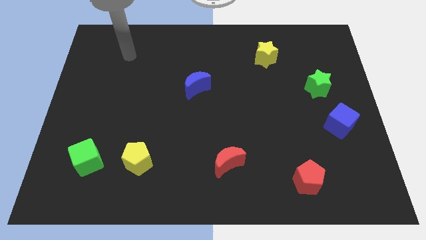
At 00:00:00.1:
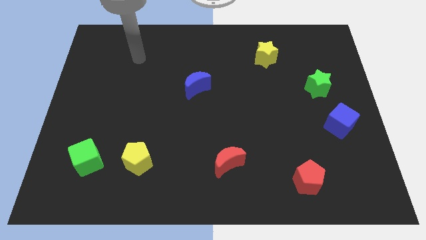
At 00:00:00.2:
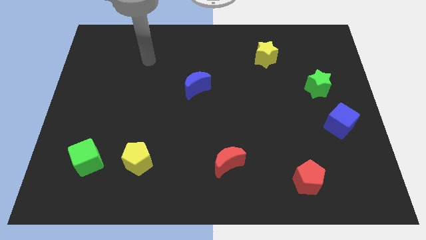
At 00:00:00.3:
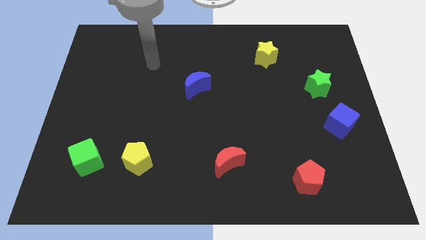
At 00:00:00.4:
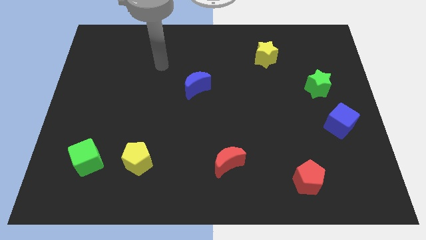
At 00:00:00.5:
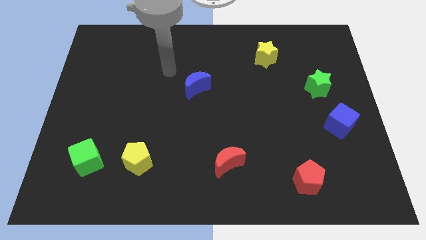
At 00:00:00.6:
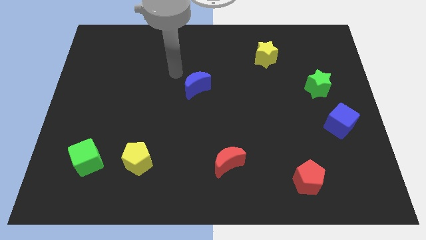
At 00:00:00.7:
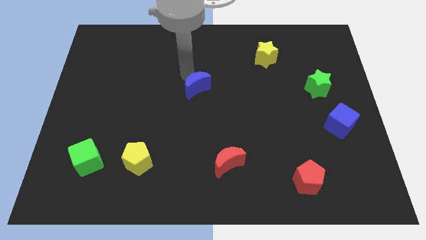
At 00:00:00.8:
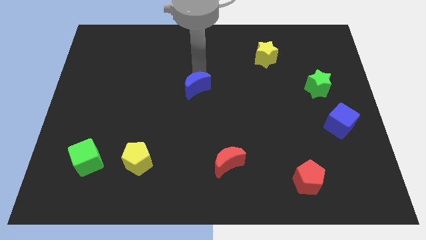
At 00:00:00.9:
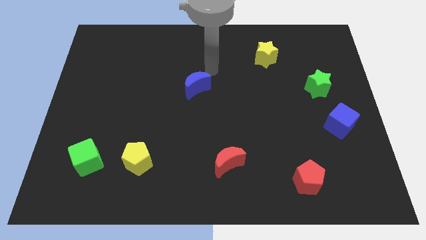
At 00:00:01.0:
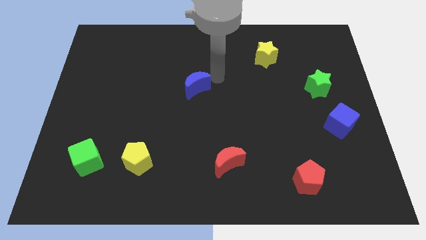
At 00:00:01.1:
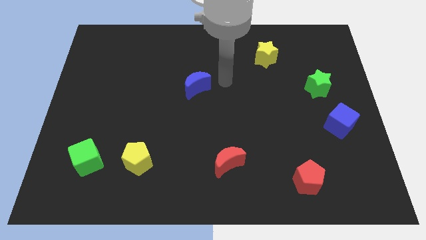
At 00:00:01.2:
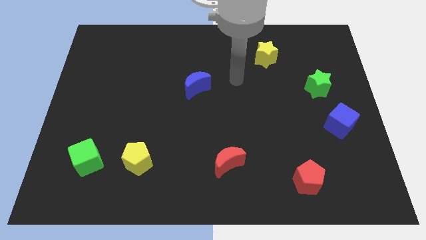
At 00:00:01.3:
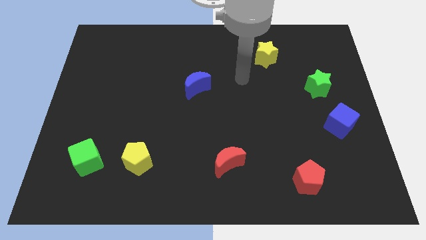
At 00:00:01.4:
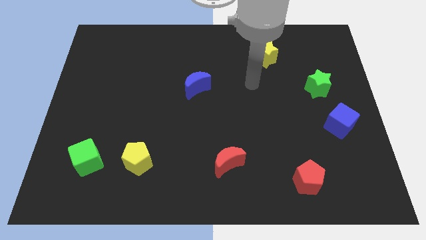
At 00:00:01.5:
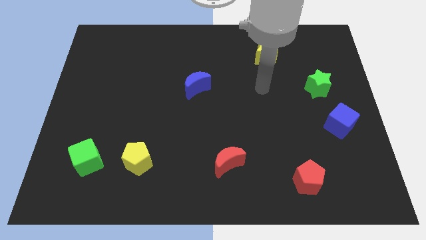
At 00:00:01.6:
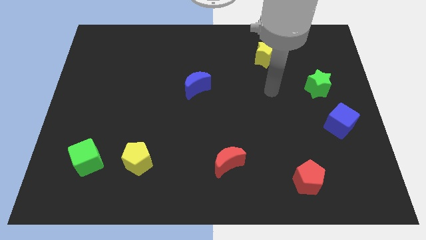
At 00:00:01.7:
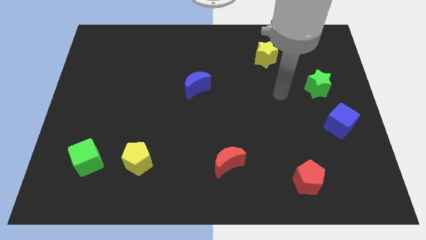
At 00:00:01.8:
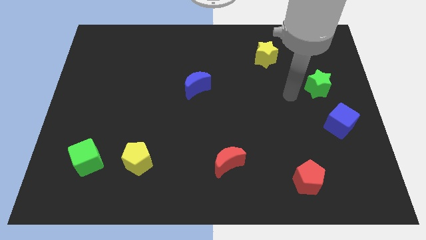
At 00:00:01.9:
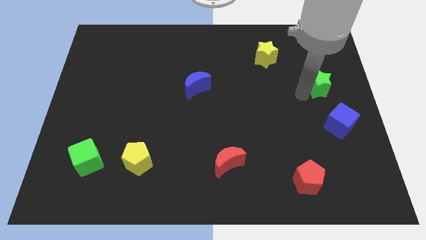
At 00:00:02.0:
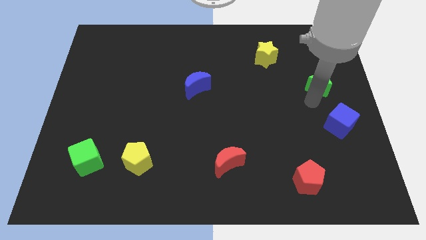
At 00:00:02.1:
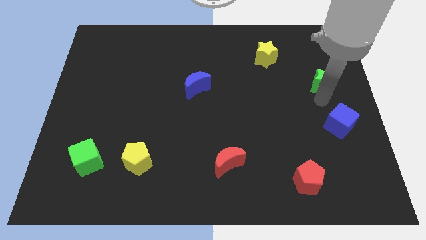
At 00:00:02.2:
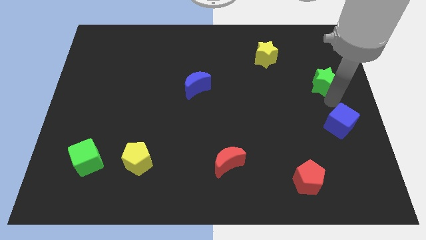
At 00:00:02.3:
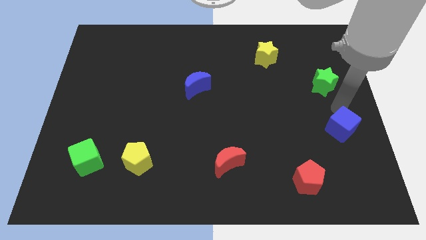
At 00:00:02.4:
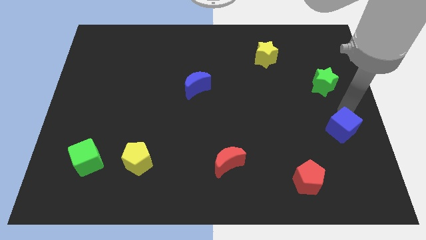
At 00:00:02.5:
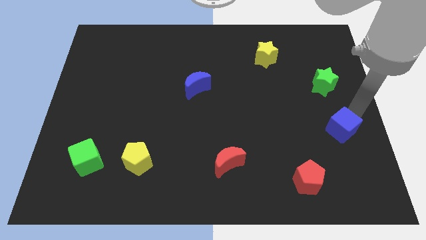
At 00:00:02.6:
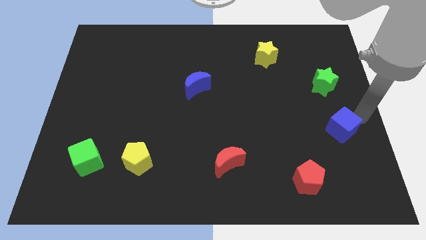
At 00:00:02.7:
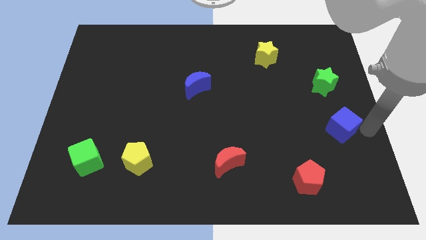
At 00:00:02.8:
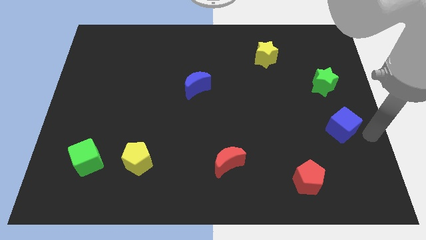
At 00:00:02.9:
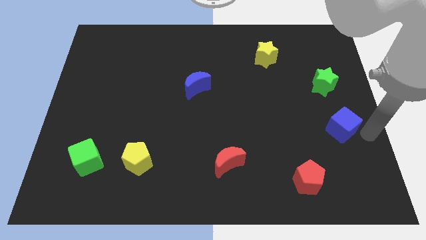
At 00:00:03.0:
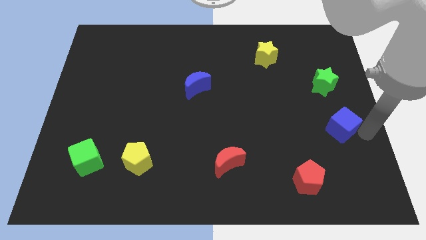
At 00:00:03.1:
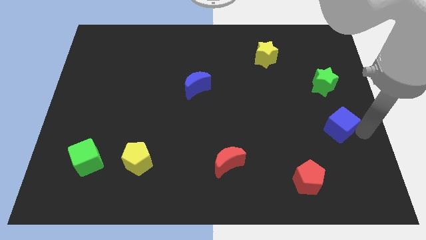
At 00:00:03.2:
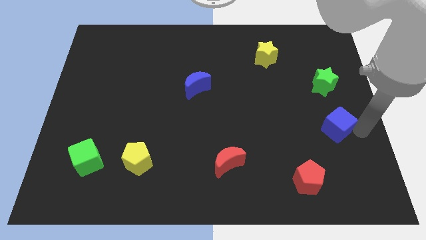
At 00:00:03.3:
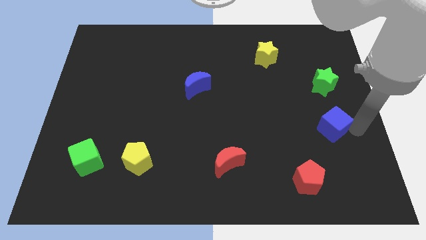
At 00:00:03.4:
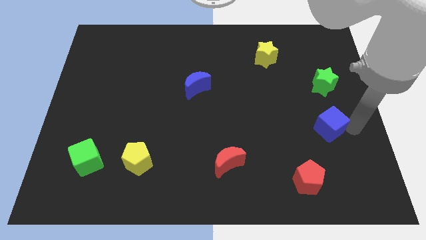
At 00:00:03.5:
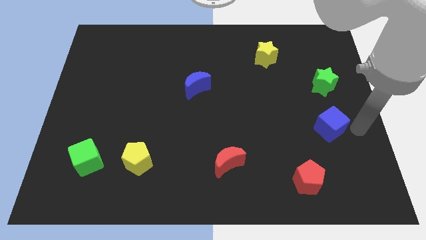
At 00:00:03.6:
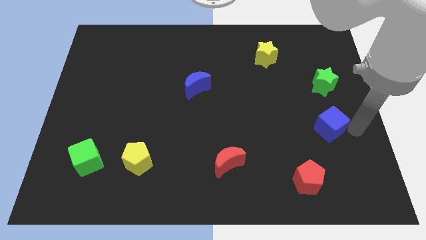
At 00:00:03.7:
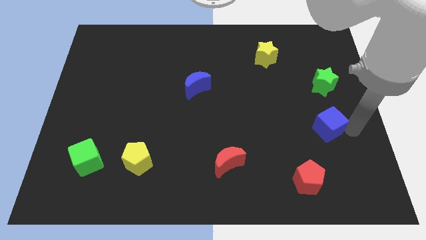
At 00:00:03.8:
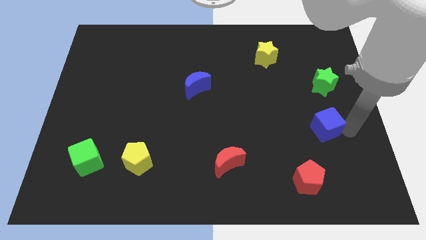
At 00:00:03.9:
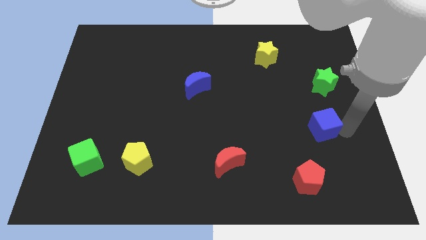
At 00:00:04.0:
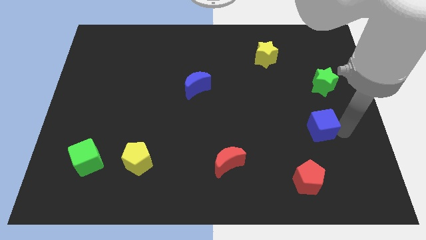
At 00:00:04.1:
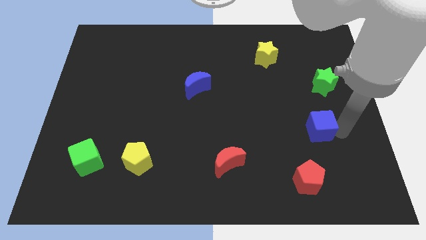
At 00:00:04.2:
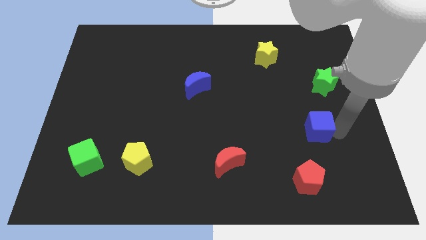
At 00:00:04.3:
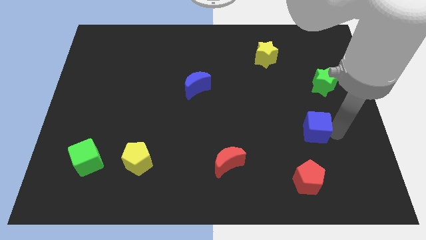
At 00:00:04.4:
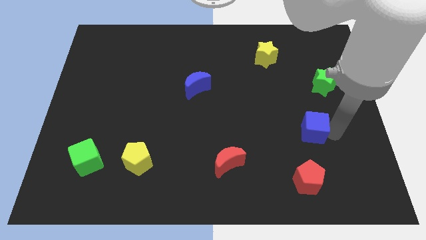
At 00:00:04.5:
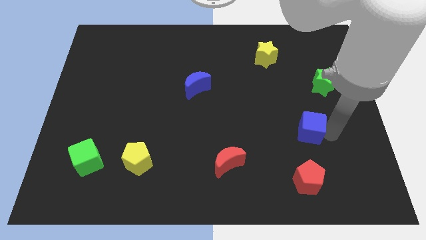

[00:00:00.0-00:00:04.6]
move the blue cube to the left a little

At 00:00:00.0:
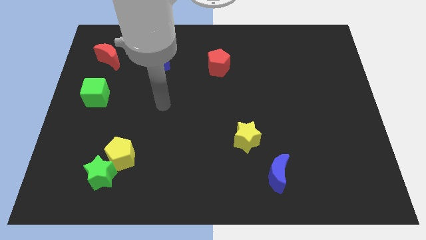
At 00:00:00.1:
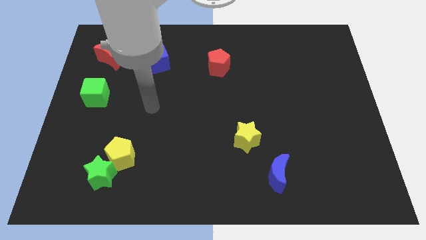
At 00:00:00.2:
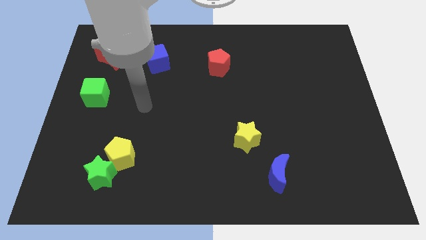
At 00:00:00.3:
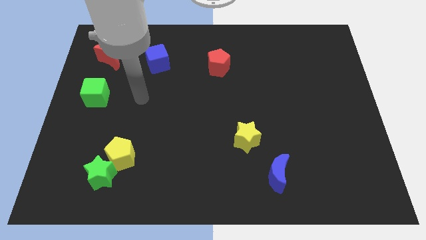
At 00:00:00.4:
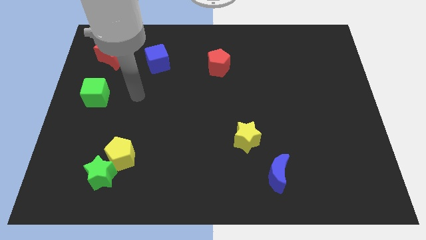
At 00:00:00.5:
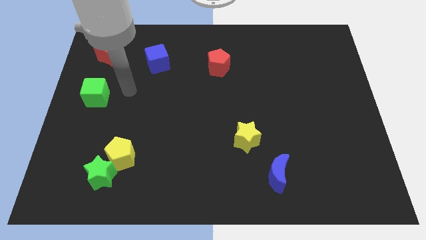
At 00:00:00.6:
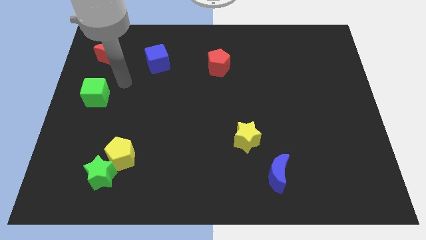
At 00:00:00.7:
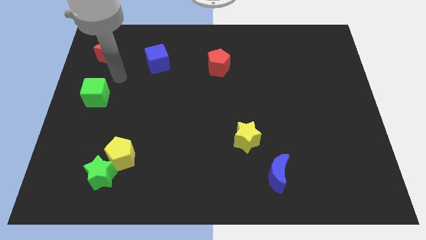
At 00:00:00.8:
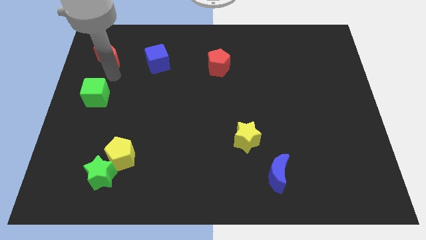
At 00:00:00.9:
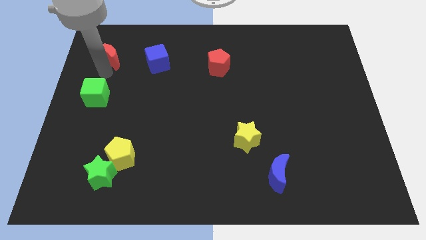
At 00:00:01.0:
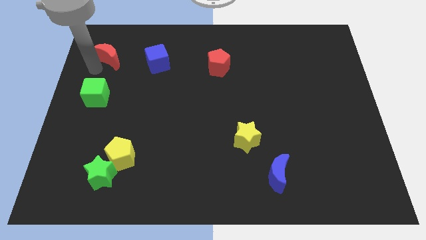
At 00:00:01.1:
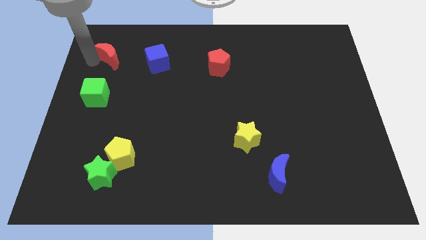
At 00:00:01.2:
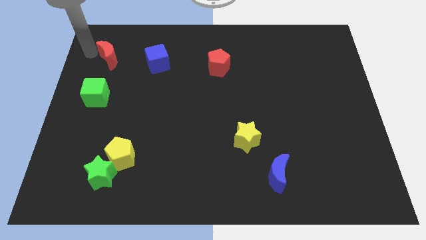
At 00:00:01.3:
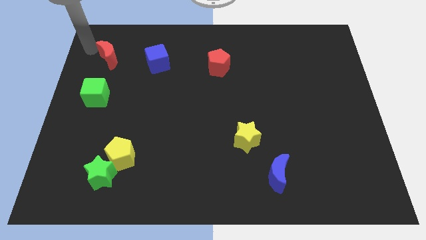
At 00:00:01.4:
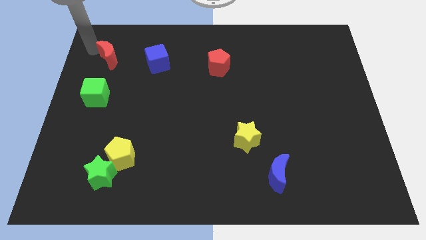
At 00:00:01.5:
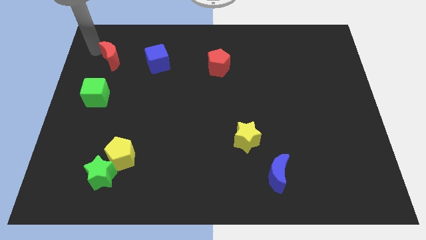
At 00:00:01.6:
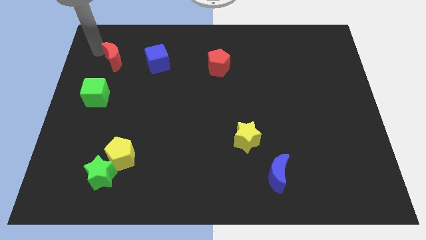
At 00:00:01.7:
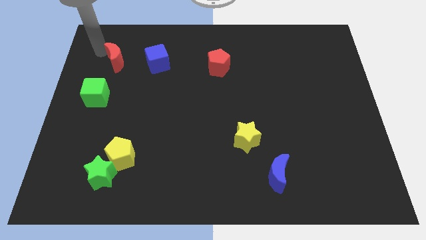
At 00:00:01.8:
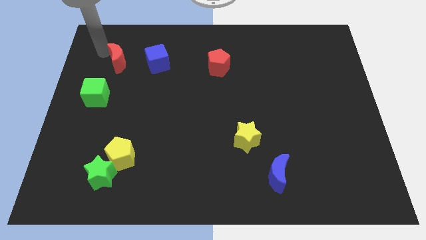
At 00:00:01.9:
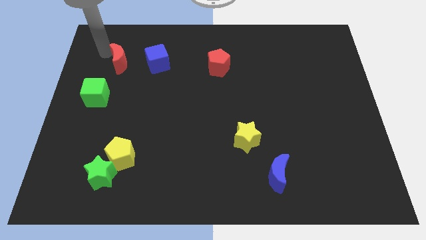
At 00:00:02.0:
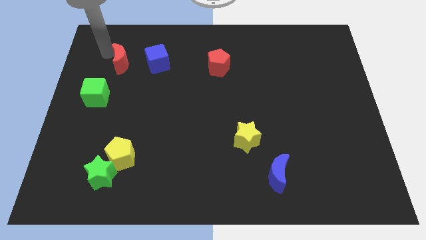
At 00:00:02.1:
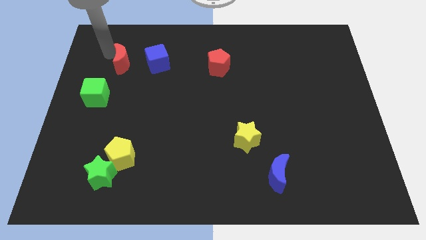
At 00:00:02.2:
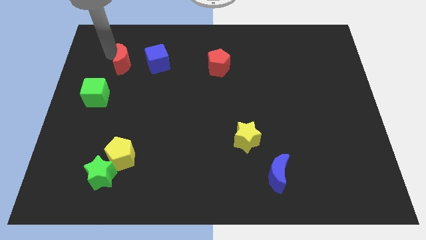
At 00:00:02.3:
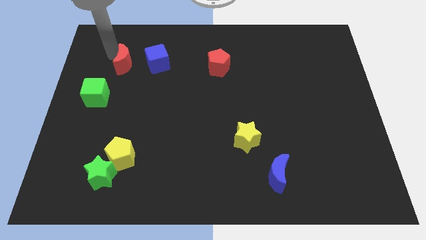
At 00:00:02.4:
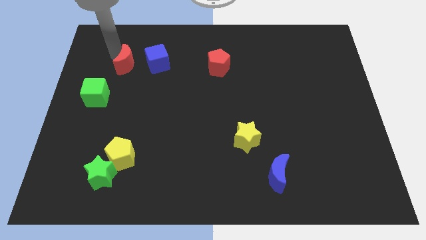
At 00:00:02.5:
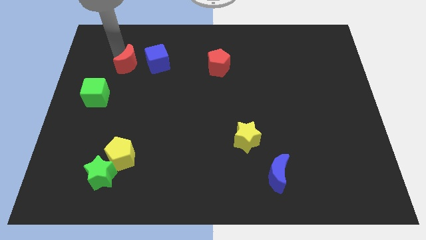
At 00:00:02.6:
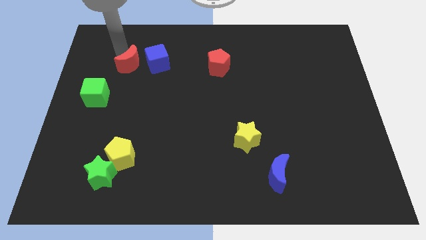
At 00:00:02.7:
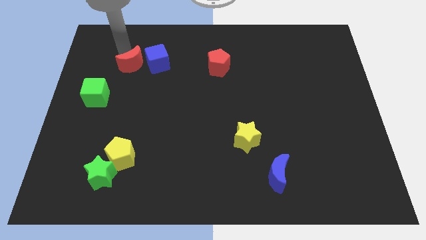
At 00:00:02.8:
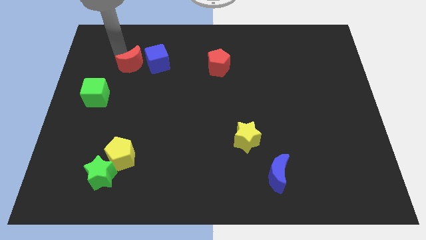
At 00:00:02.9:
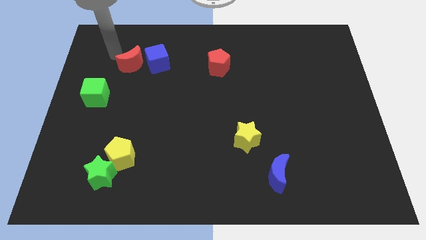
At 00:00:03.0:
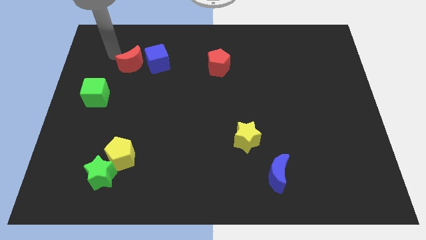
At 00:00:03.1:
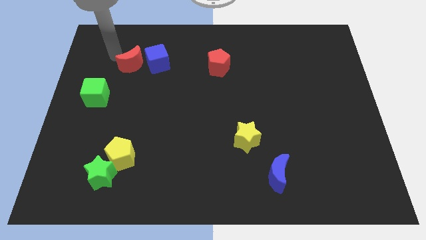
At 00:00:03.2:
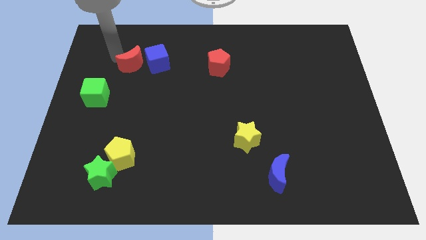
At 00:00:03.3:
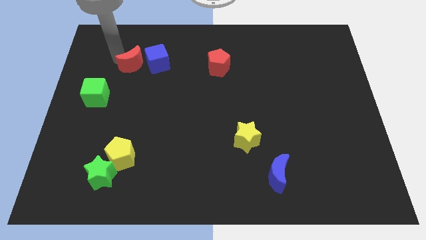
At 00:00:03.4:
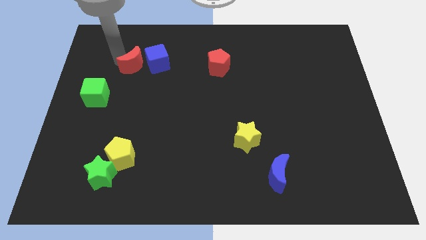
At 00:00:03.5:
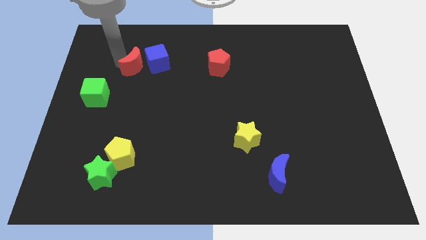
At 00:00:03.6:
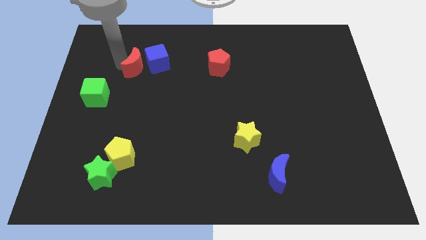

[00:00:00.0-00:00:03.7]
slide the red moon a bit right
